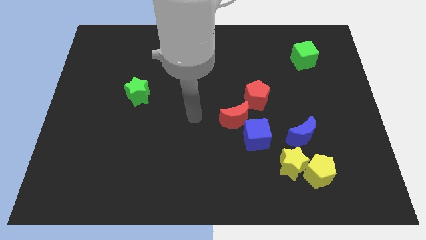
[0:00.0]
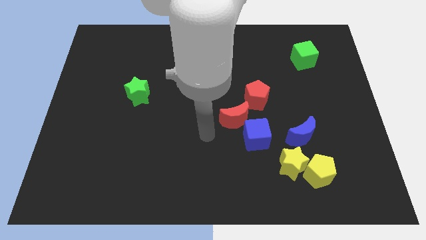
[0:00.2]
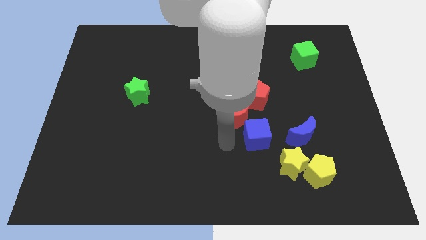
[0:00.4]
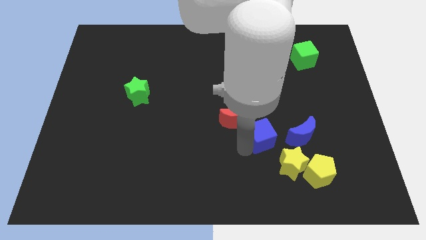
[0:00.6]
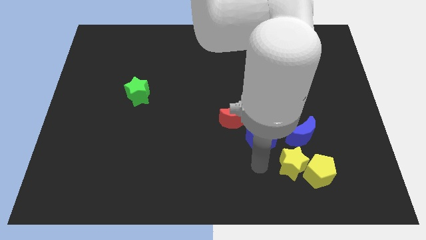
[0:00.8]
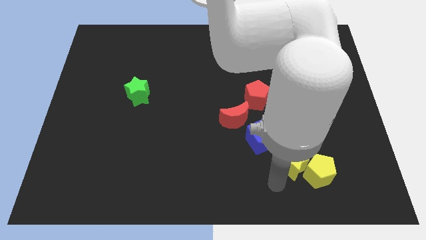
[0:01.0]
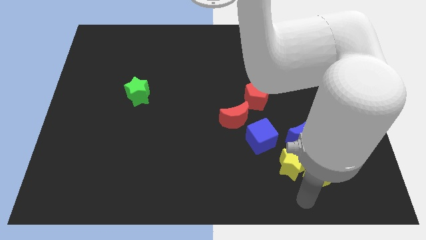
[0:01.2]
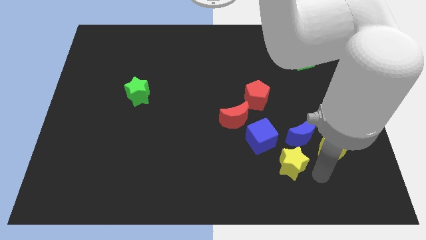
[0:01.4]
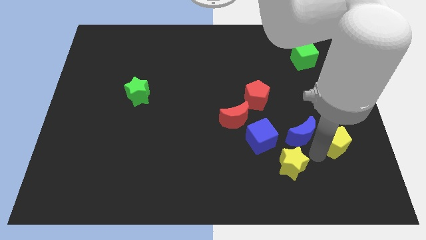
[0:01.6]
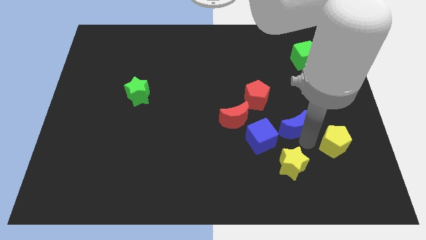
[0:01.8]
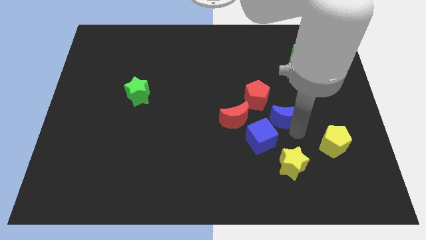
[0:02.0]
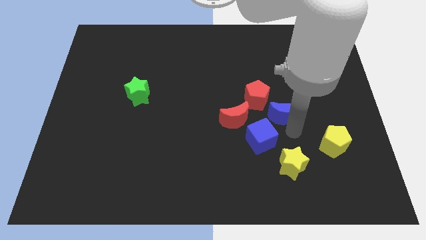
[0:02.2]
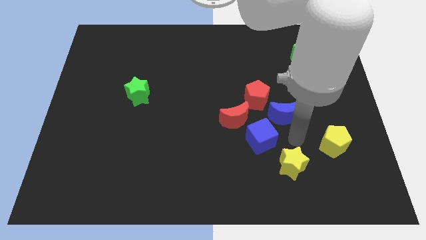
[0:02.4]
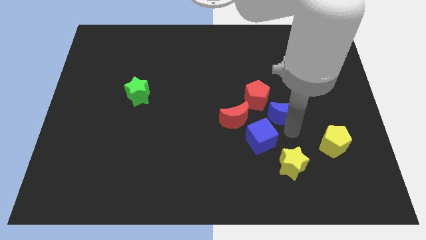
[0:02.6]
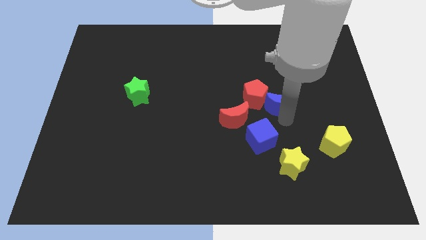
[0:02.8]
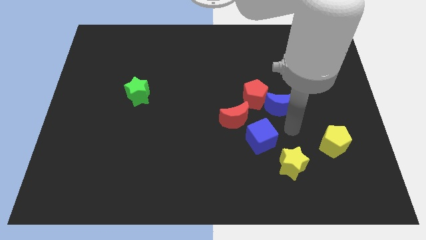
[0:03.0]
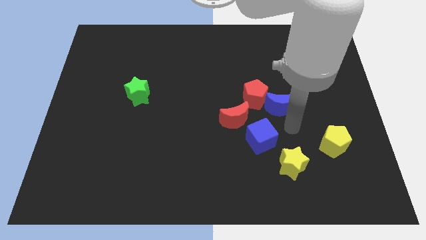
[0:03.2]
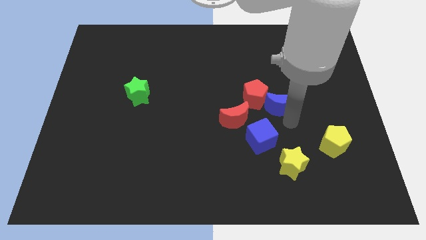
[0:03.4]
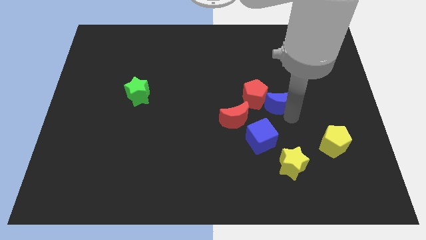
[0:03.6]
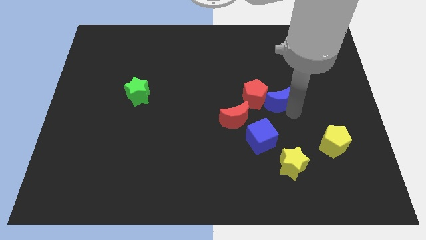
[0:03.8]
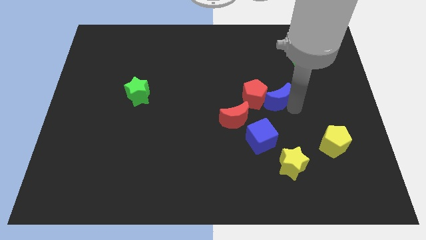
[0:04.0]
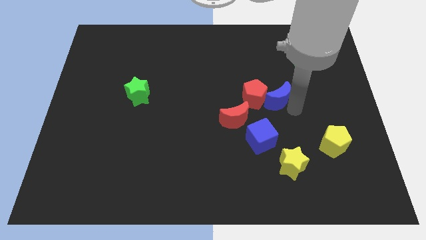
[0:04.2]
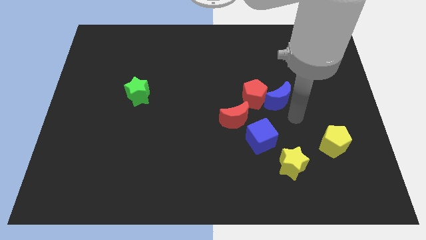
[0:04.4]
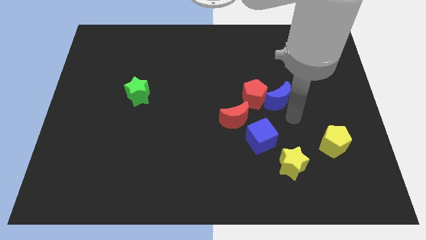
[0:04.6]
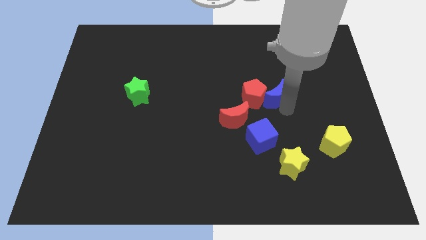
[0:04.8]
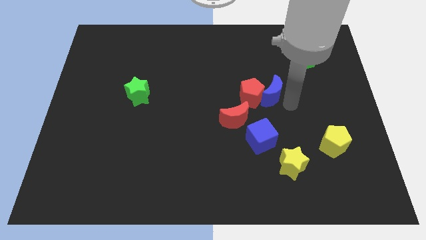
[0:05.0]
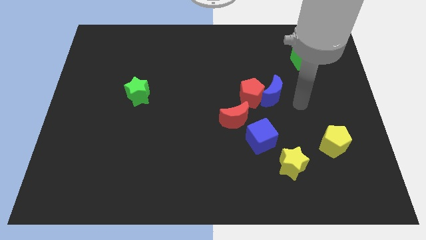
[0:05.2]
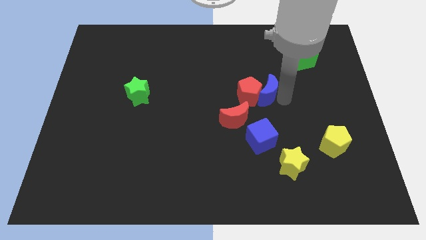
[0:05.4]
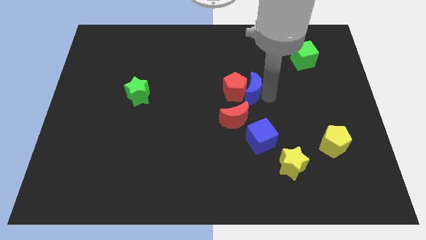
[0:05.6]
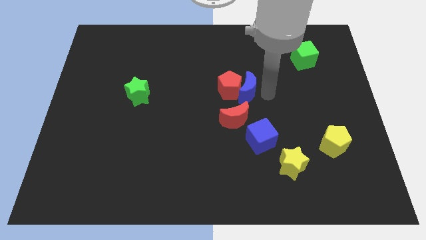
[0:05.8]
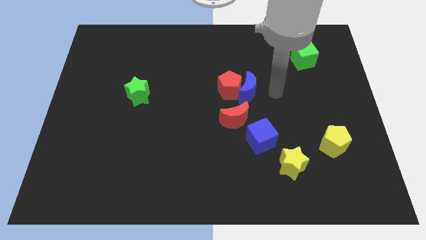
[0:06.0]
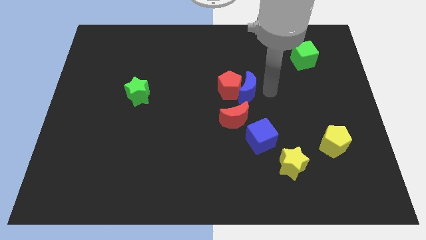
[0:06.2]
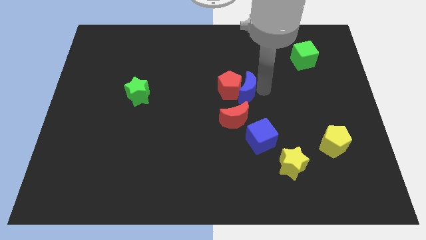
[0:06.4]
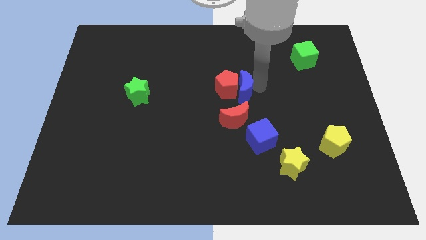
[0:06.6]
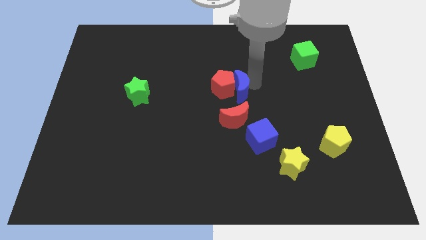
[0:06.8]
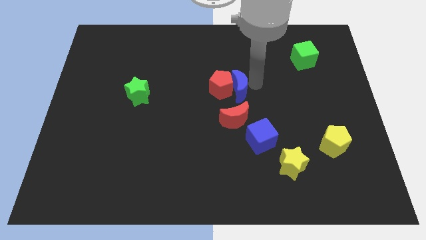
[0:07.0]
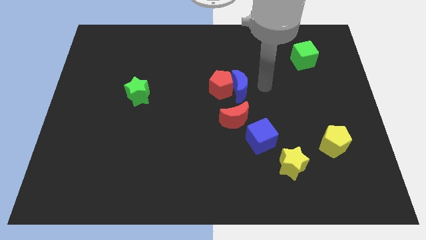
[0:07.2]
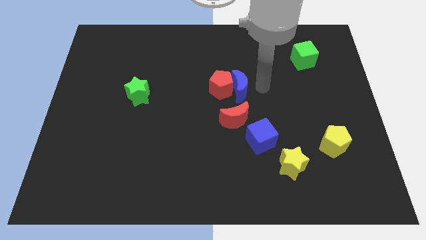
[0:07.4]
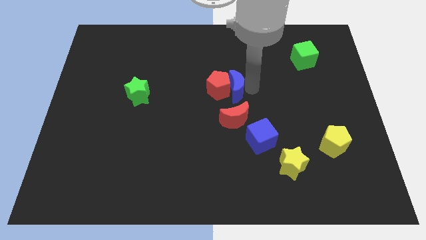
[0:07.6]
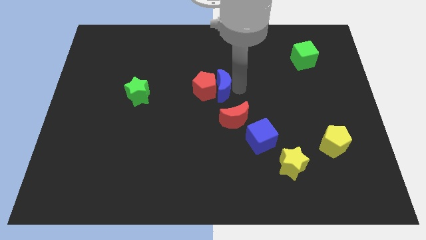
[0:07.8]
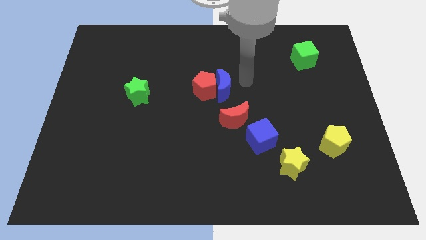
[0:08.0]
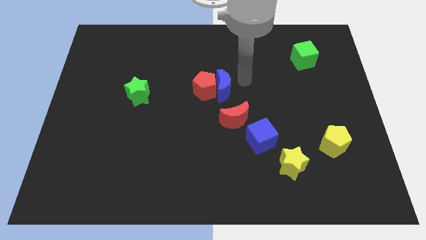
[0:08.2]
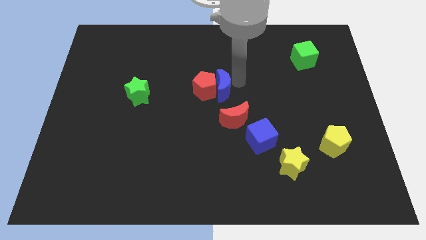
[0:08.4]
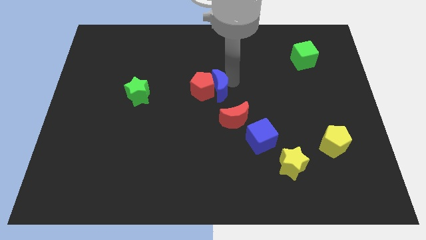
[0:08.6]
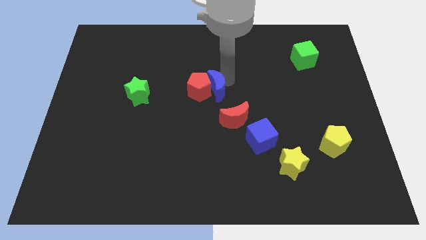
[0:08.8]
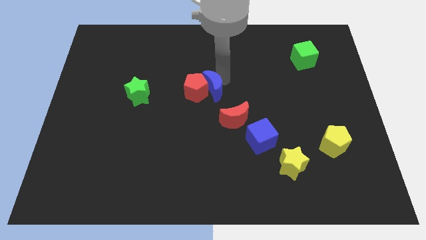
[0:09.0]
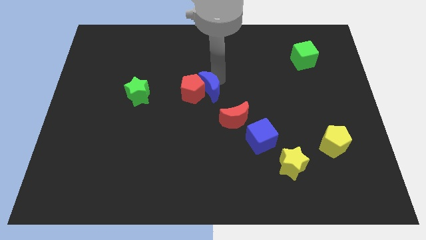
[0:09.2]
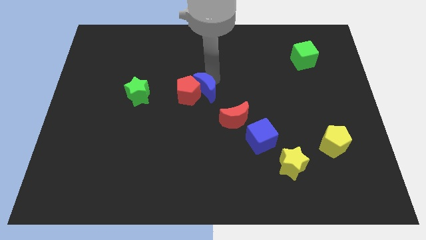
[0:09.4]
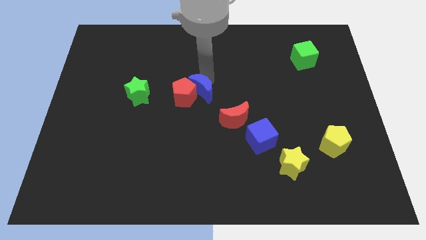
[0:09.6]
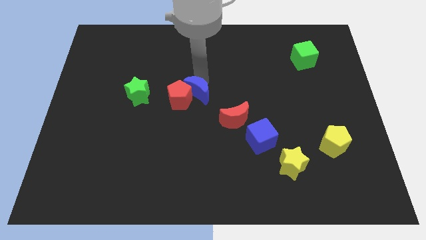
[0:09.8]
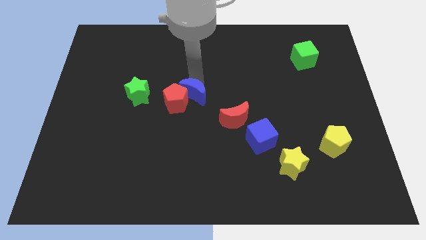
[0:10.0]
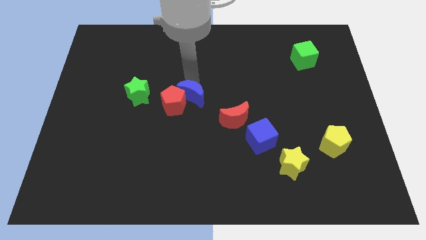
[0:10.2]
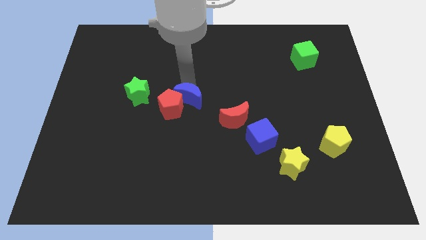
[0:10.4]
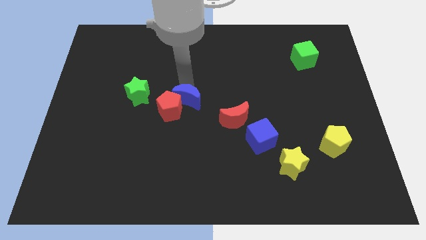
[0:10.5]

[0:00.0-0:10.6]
move the blue moon to the left

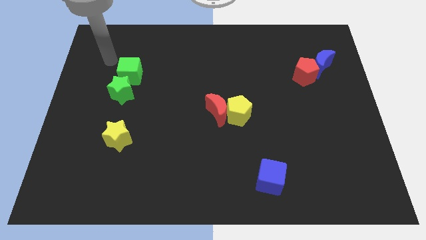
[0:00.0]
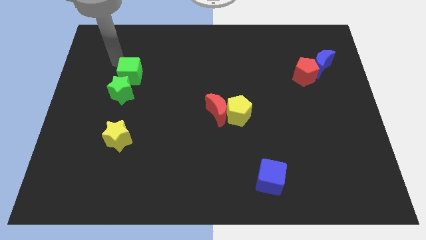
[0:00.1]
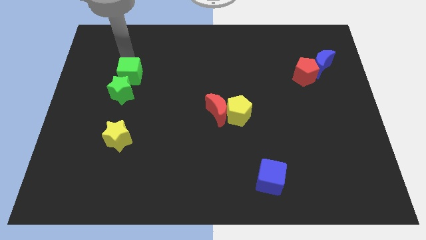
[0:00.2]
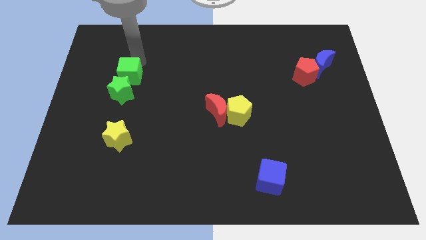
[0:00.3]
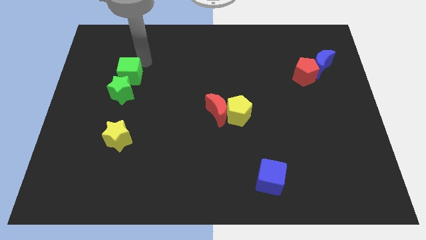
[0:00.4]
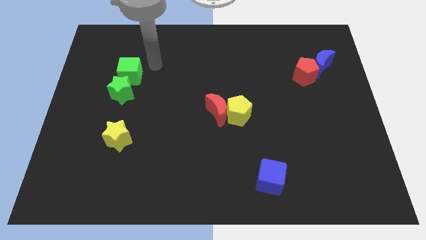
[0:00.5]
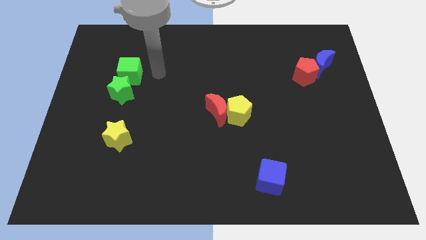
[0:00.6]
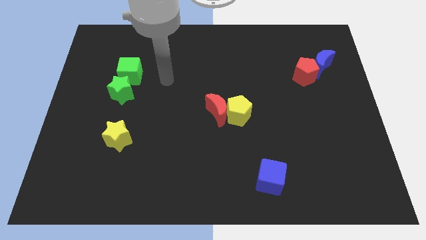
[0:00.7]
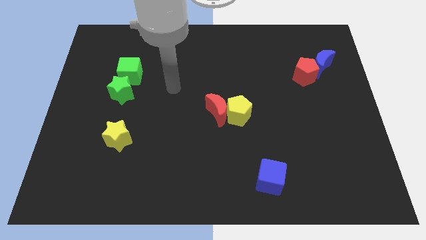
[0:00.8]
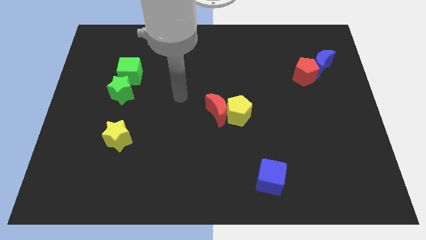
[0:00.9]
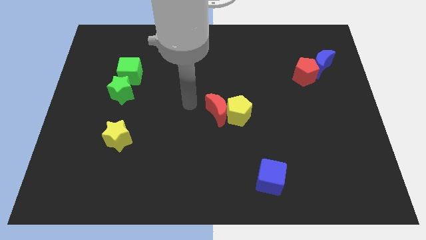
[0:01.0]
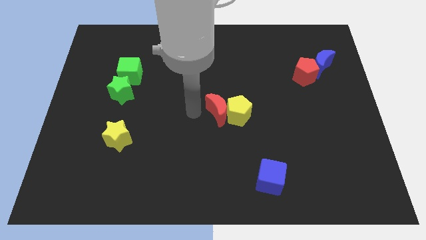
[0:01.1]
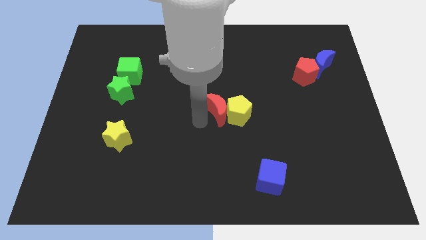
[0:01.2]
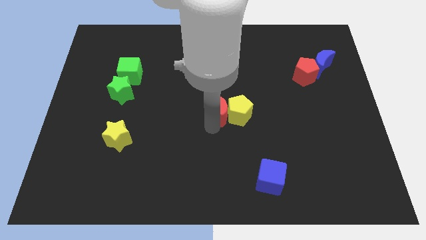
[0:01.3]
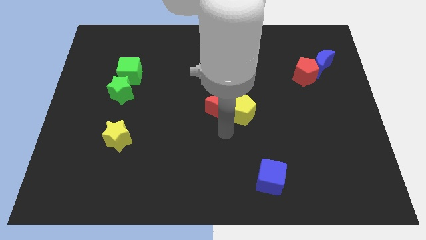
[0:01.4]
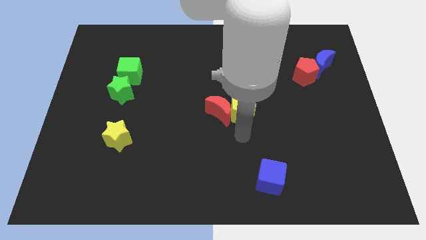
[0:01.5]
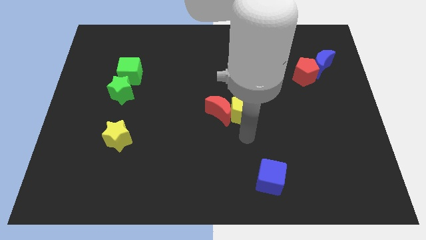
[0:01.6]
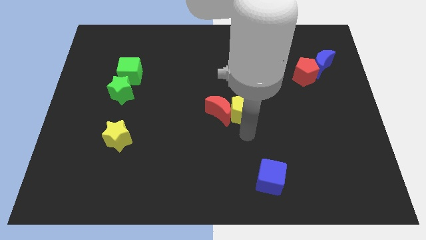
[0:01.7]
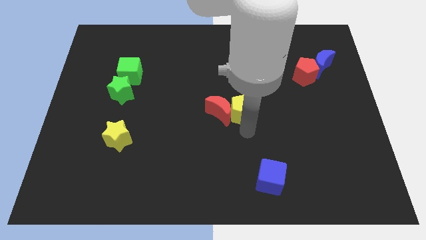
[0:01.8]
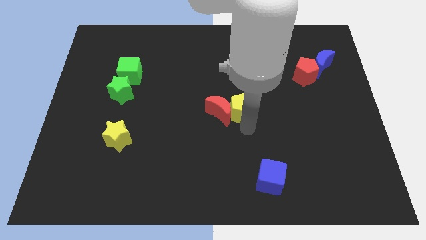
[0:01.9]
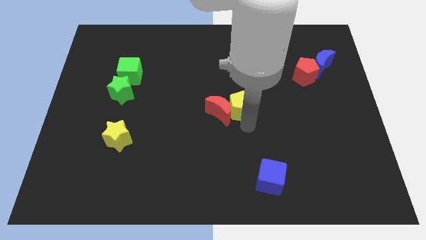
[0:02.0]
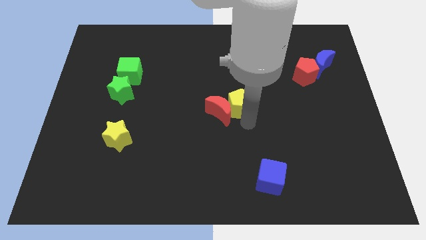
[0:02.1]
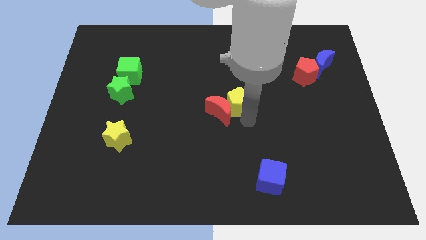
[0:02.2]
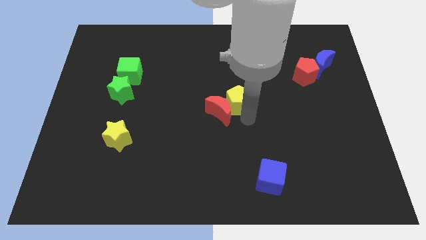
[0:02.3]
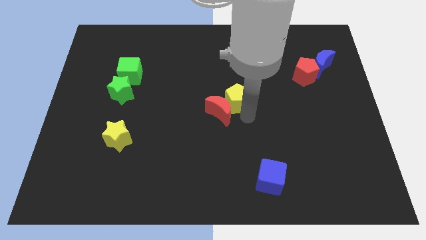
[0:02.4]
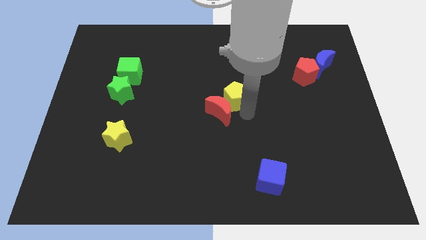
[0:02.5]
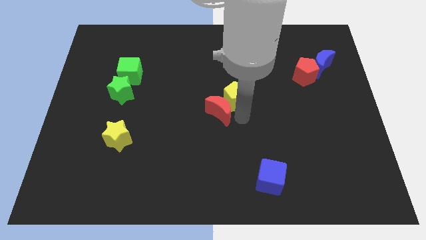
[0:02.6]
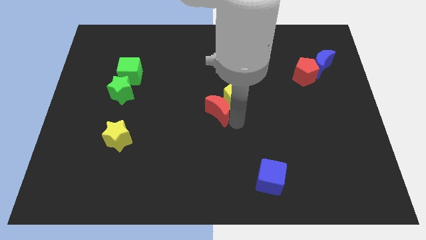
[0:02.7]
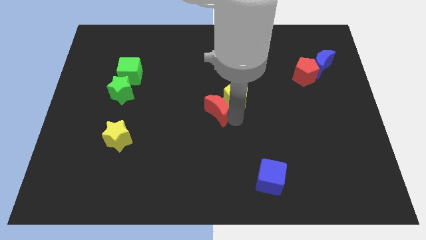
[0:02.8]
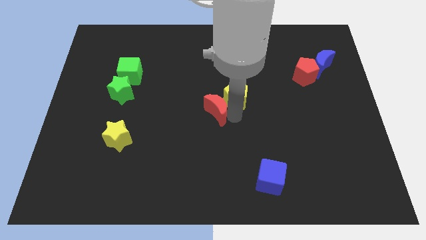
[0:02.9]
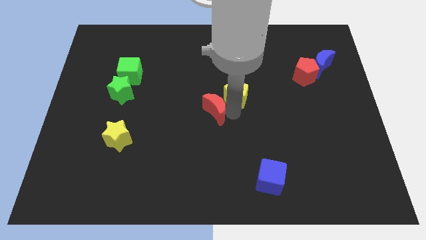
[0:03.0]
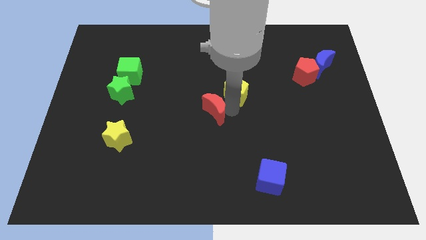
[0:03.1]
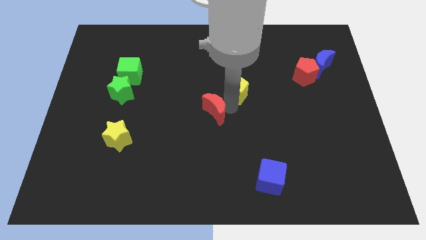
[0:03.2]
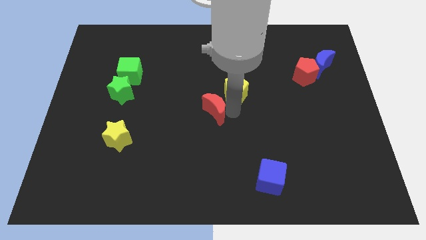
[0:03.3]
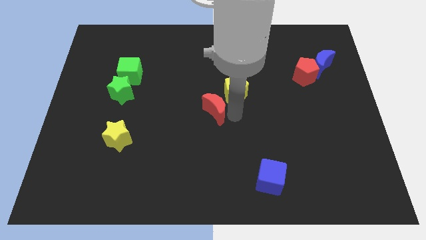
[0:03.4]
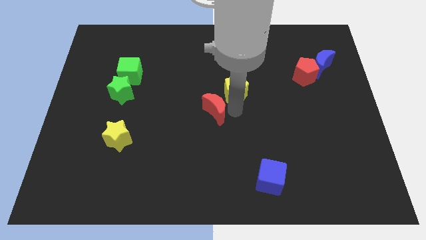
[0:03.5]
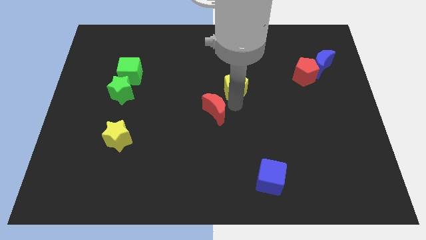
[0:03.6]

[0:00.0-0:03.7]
slightly slide the yellow pentagon up
